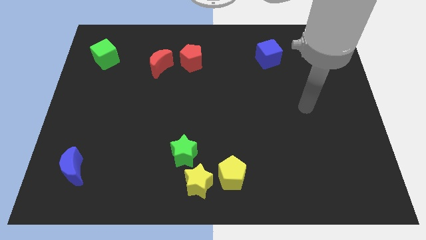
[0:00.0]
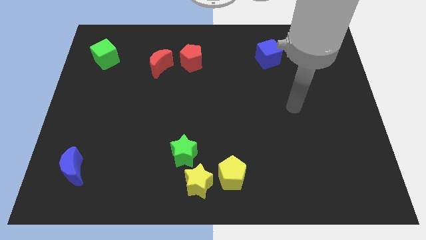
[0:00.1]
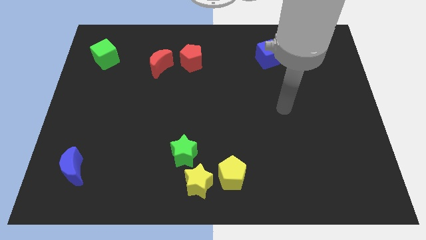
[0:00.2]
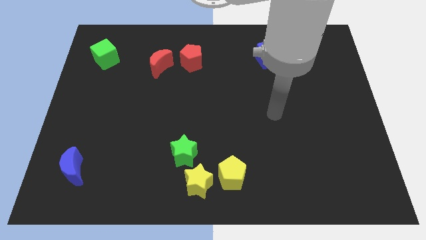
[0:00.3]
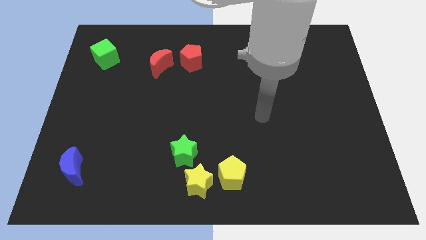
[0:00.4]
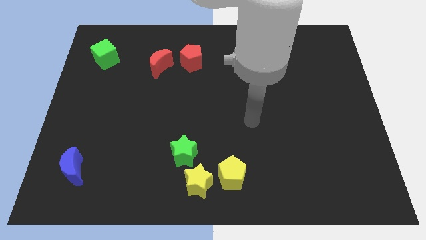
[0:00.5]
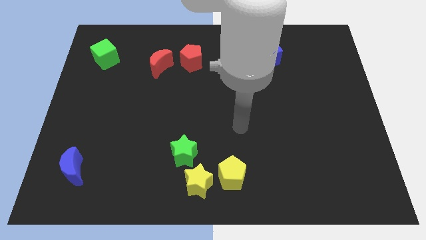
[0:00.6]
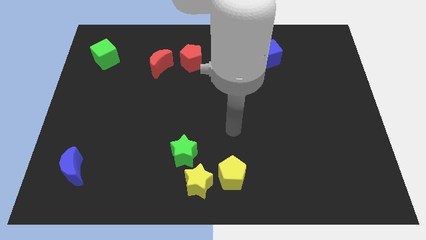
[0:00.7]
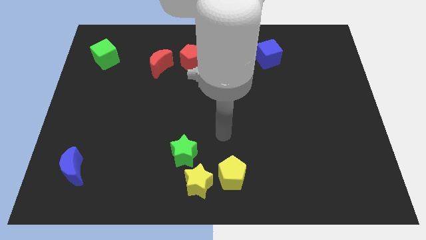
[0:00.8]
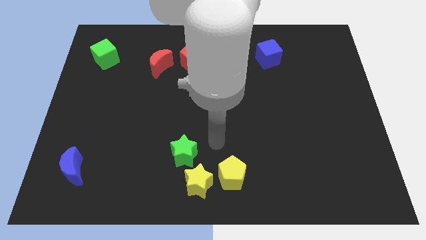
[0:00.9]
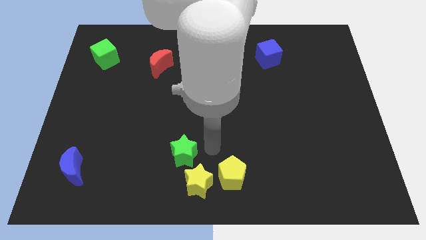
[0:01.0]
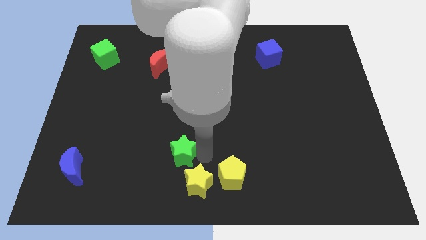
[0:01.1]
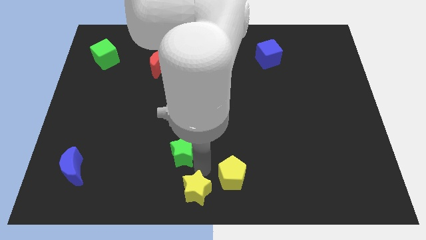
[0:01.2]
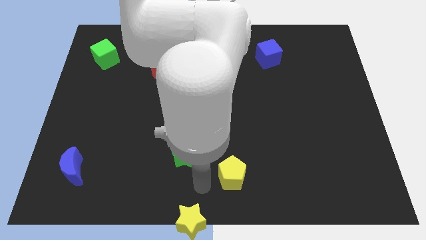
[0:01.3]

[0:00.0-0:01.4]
move the yellow pentagon away from the yellow star

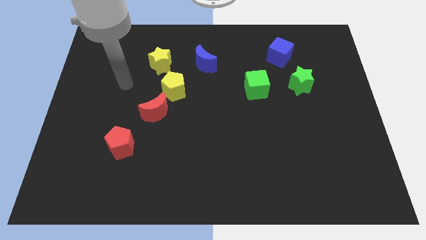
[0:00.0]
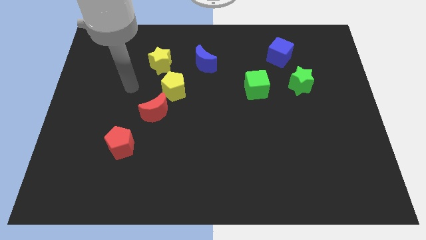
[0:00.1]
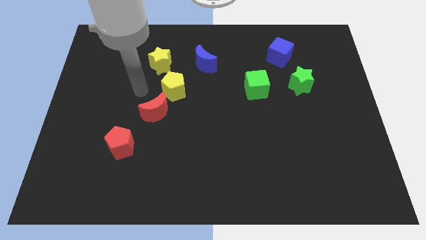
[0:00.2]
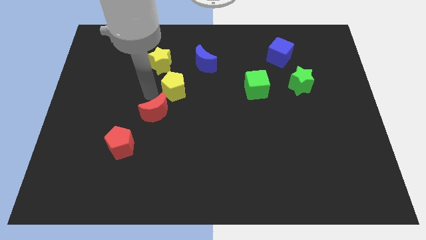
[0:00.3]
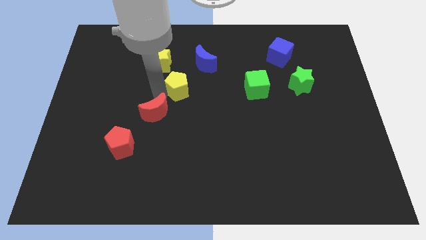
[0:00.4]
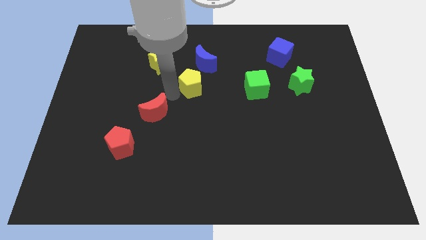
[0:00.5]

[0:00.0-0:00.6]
pull the red moon apart from the yellow pentagon

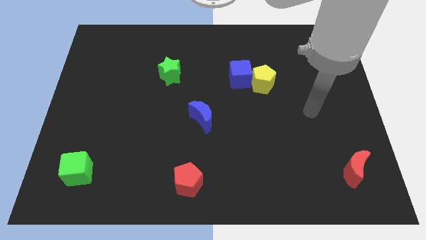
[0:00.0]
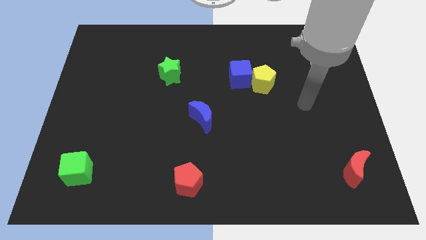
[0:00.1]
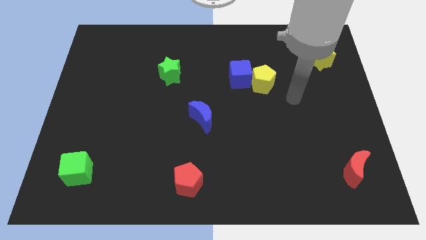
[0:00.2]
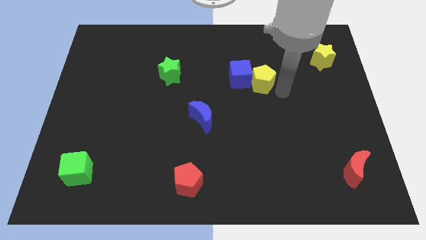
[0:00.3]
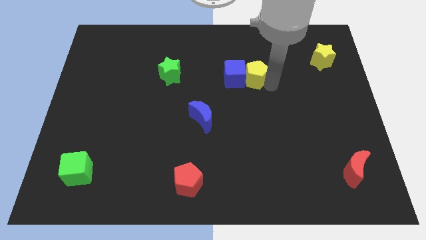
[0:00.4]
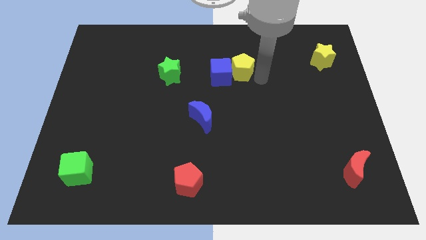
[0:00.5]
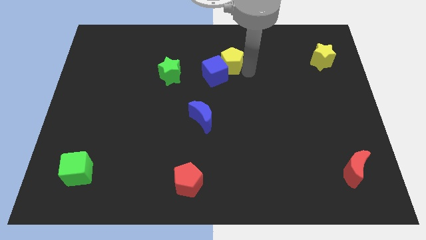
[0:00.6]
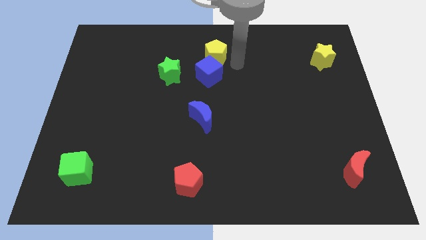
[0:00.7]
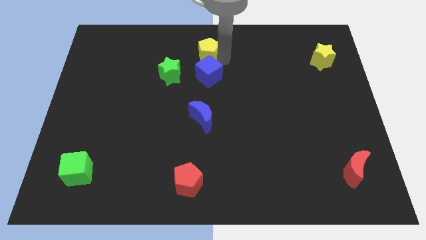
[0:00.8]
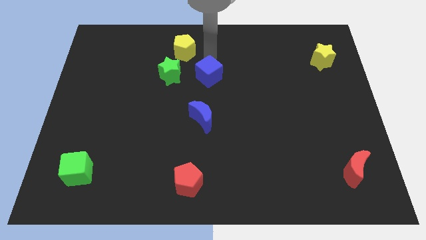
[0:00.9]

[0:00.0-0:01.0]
move the blue cube away from the yellow pentagon

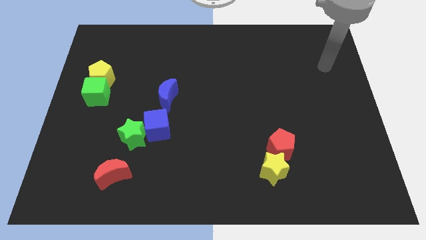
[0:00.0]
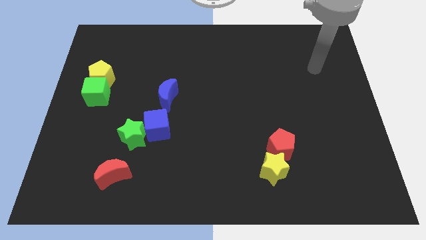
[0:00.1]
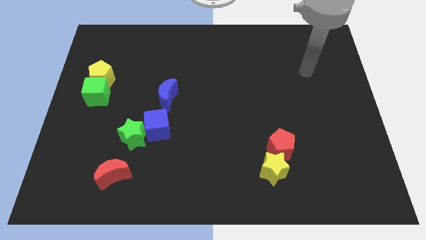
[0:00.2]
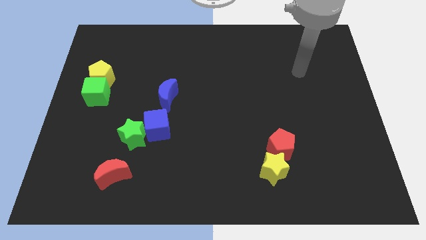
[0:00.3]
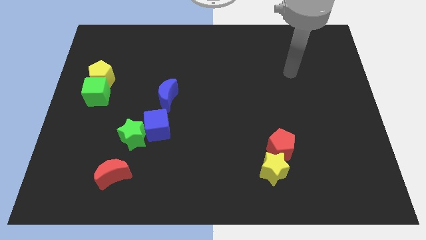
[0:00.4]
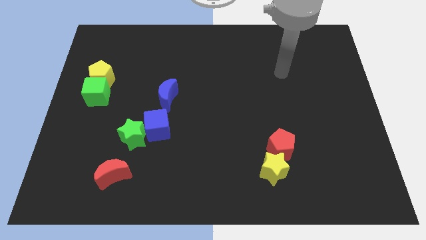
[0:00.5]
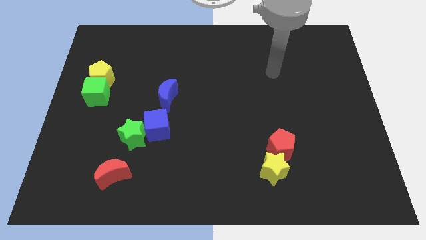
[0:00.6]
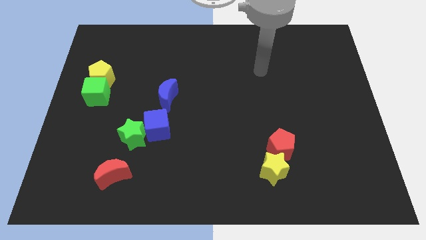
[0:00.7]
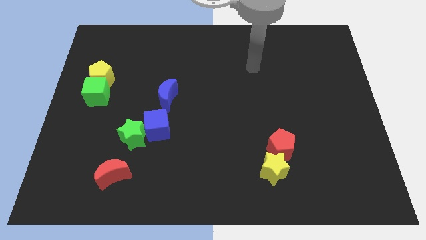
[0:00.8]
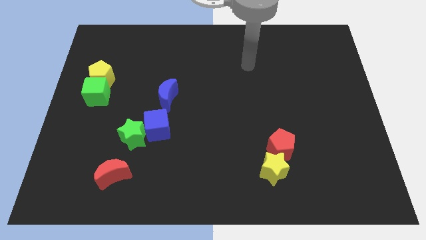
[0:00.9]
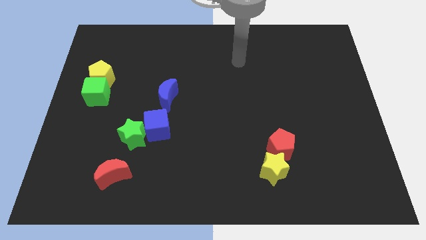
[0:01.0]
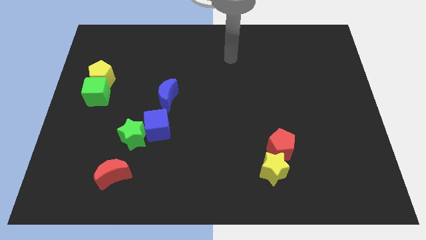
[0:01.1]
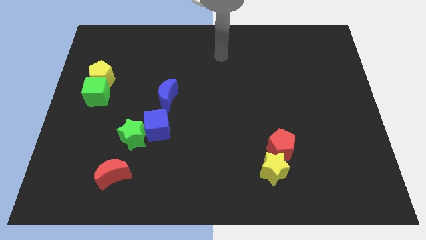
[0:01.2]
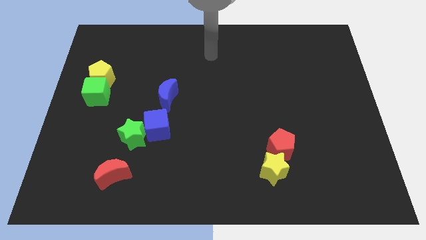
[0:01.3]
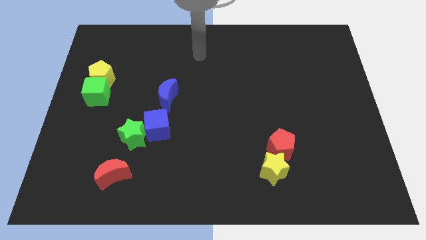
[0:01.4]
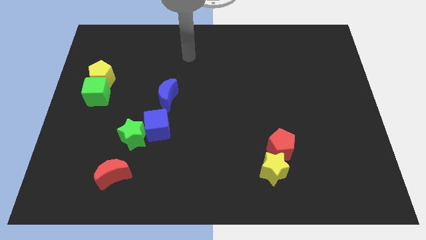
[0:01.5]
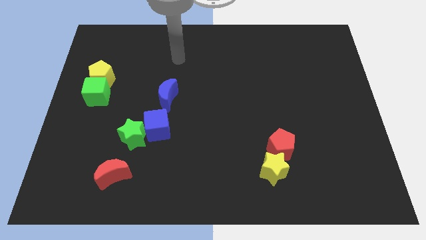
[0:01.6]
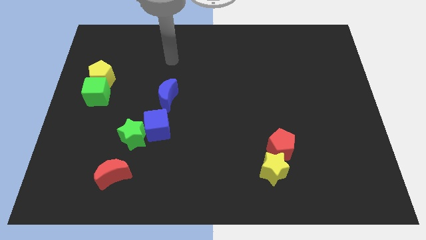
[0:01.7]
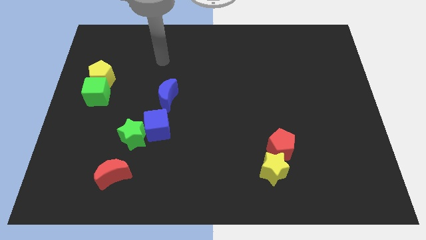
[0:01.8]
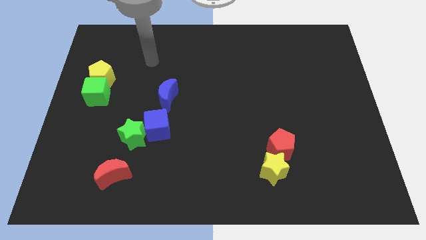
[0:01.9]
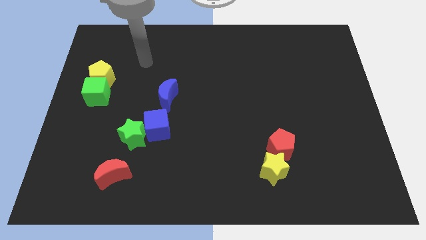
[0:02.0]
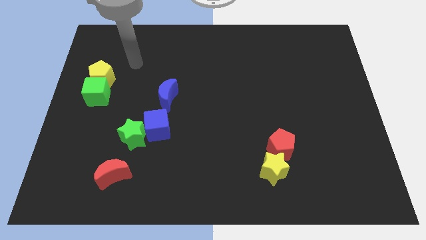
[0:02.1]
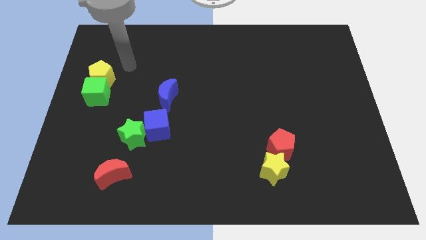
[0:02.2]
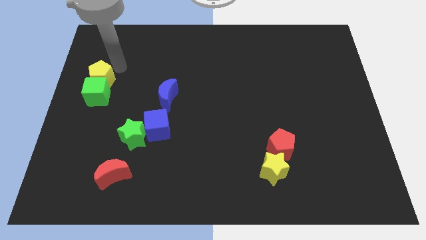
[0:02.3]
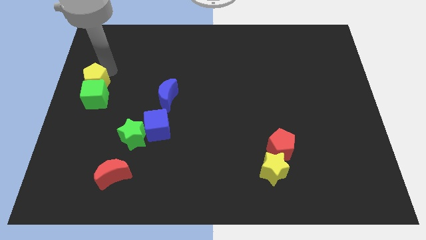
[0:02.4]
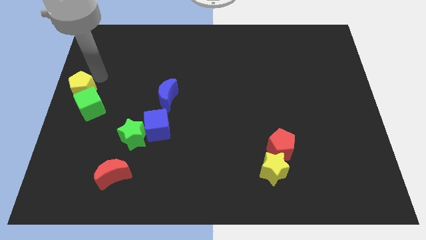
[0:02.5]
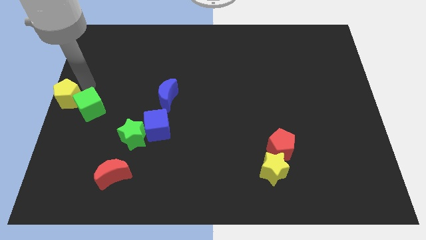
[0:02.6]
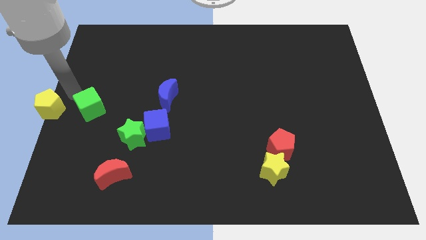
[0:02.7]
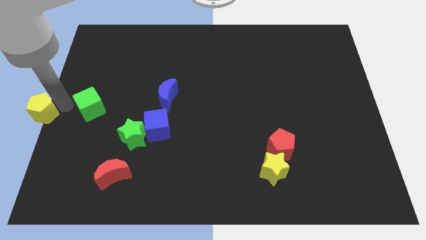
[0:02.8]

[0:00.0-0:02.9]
move the green cube away from the yellow pentagon

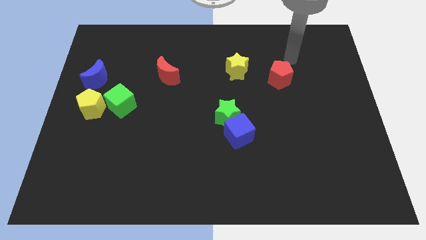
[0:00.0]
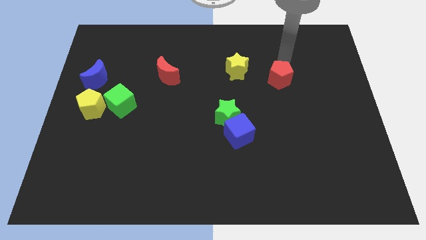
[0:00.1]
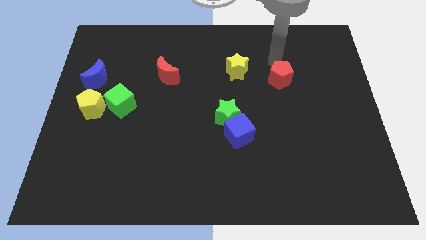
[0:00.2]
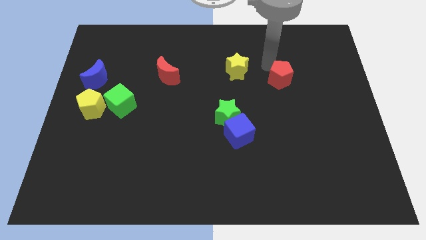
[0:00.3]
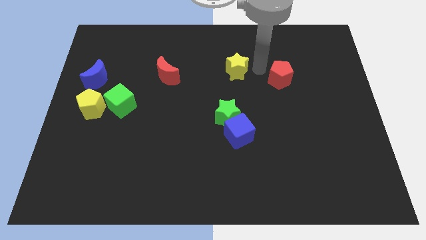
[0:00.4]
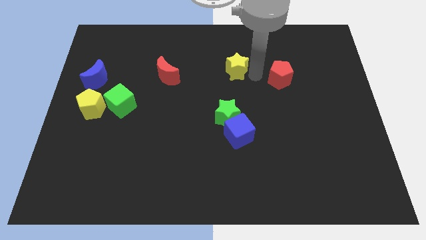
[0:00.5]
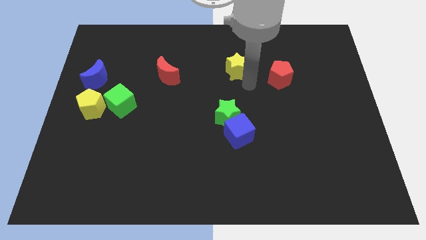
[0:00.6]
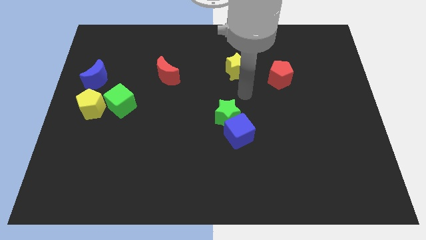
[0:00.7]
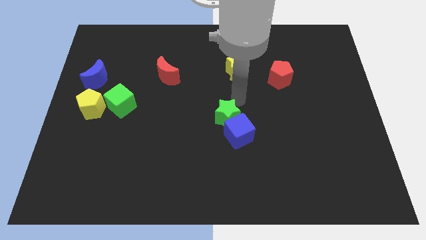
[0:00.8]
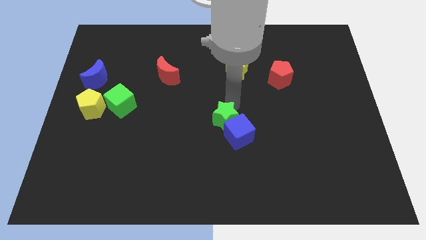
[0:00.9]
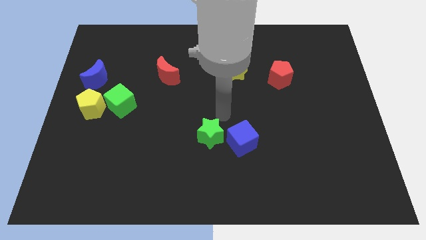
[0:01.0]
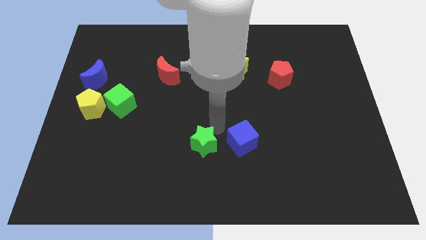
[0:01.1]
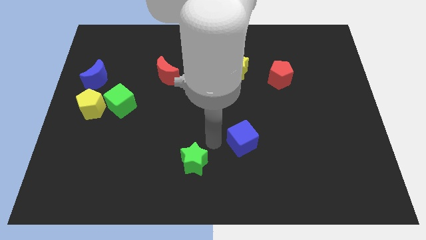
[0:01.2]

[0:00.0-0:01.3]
pull the blue cube apart from the green star

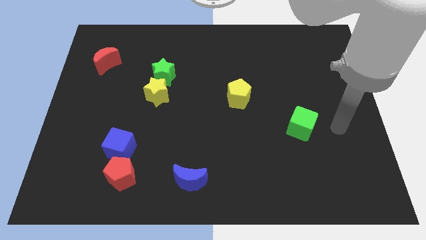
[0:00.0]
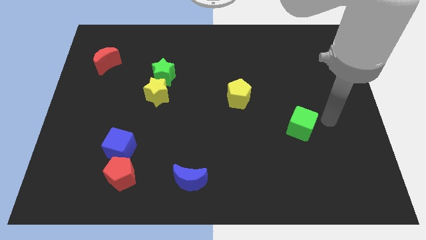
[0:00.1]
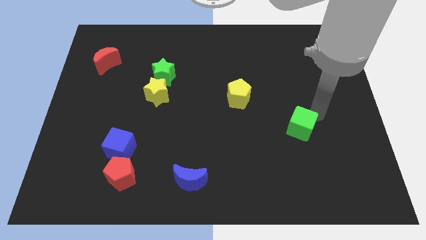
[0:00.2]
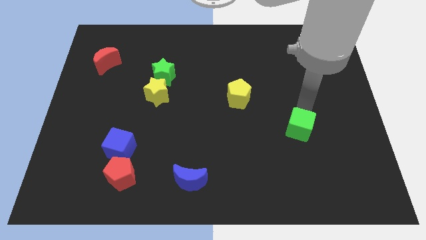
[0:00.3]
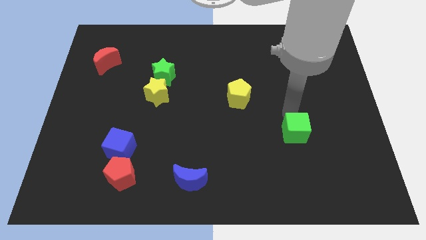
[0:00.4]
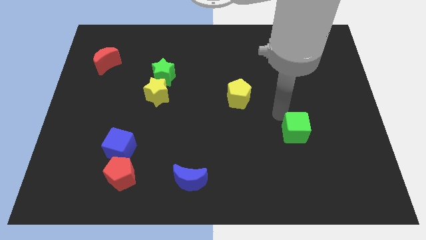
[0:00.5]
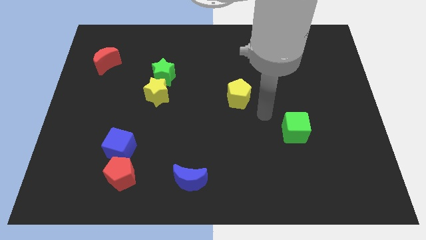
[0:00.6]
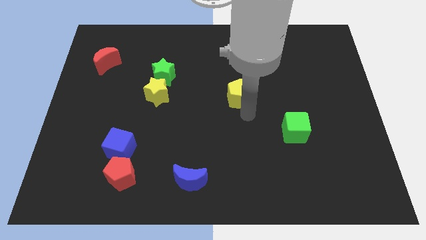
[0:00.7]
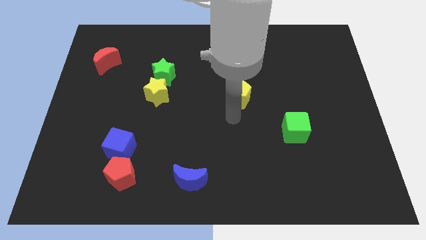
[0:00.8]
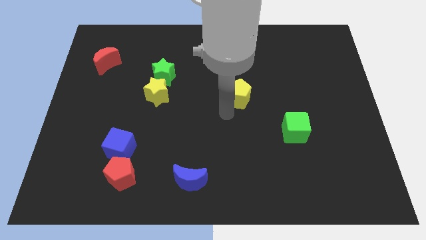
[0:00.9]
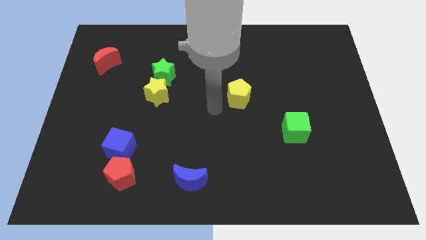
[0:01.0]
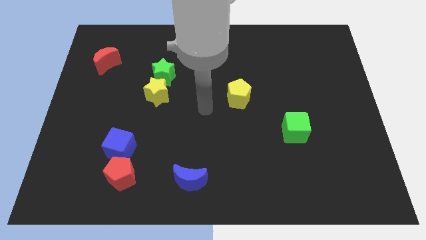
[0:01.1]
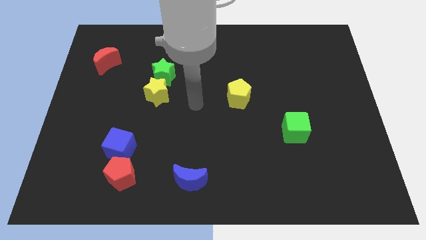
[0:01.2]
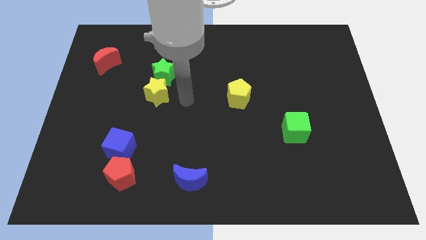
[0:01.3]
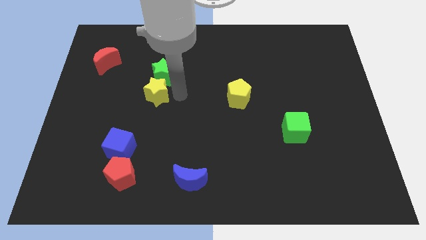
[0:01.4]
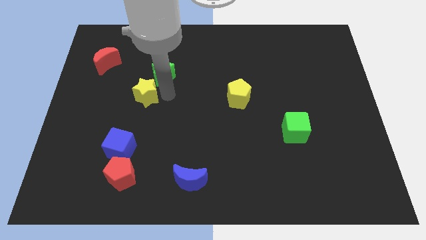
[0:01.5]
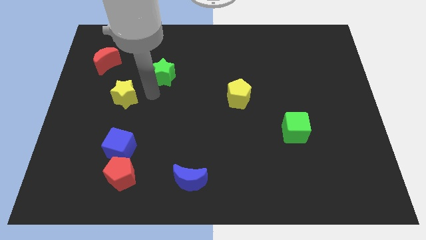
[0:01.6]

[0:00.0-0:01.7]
separate the green star from the yellow star

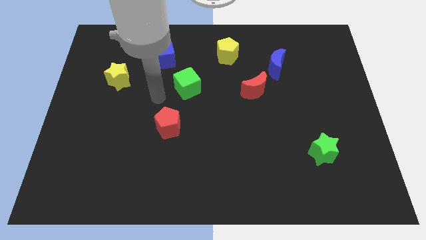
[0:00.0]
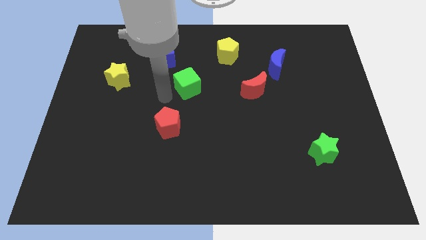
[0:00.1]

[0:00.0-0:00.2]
move the red moon away from the blue moon

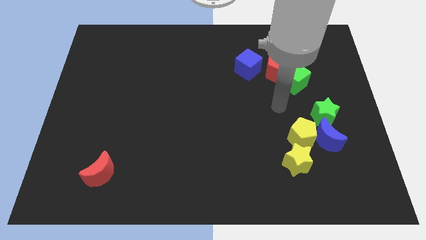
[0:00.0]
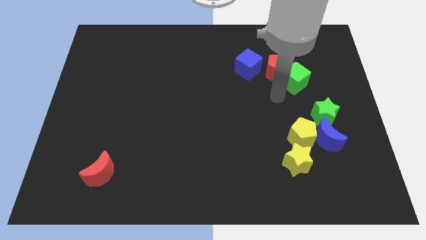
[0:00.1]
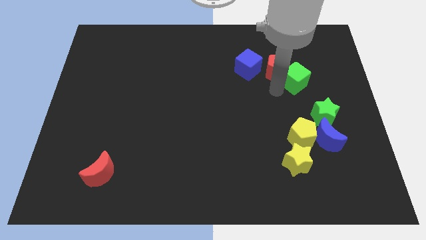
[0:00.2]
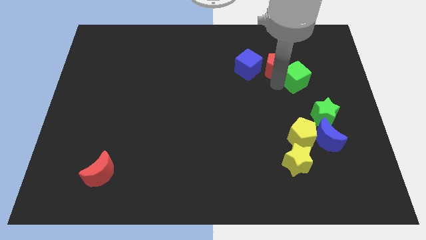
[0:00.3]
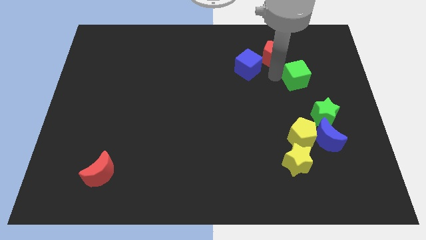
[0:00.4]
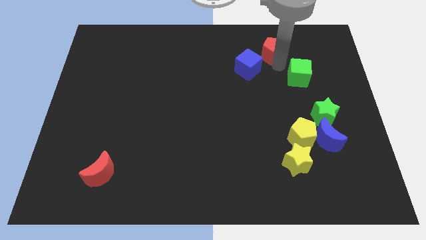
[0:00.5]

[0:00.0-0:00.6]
separate the green cube from the red pentagon
